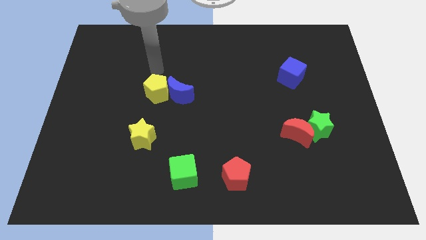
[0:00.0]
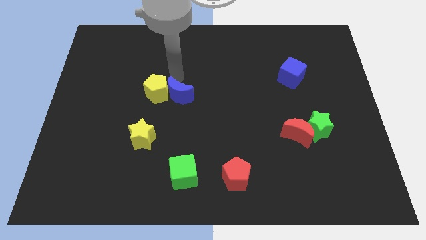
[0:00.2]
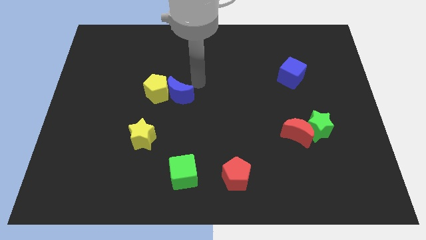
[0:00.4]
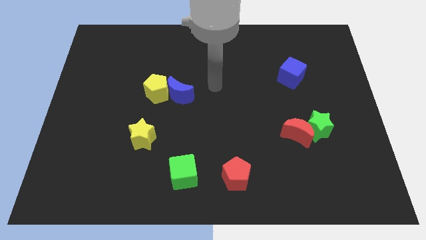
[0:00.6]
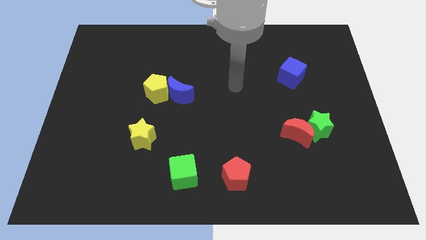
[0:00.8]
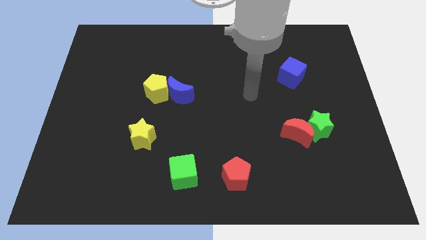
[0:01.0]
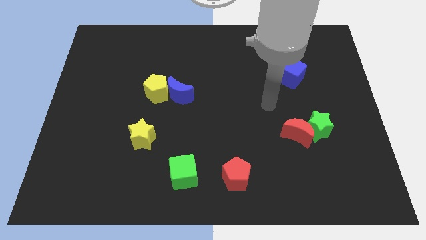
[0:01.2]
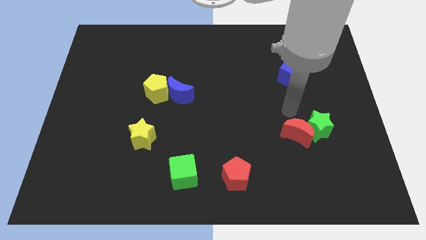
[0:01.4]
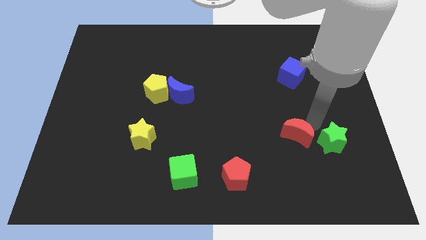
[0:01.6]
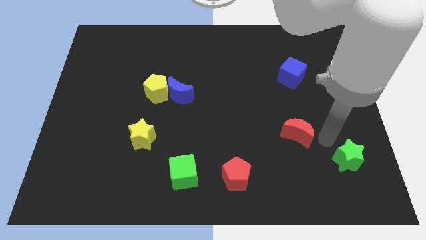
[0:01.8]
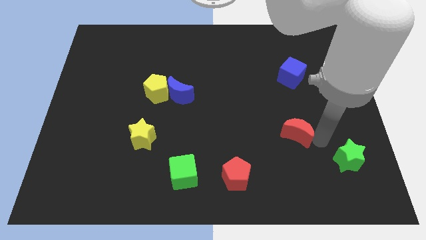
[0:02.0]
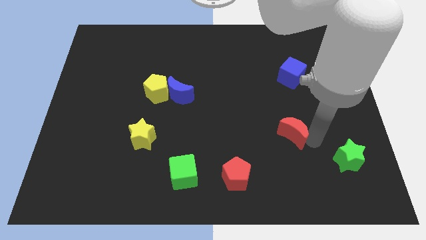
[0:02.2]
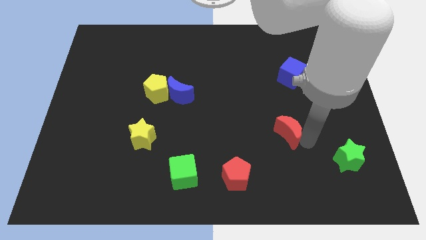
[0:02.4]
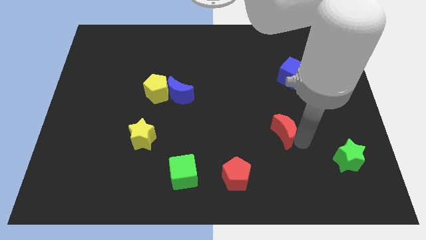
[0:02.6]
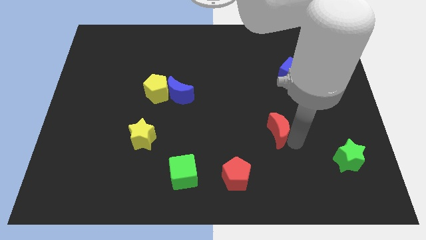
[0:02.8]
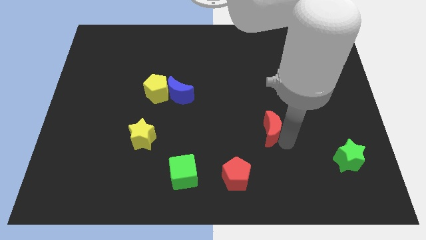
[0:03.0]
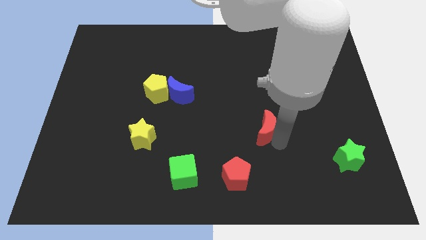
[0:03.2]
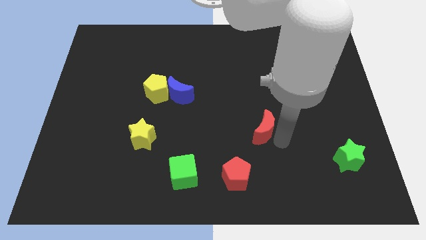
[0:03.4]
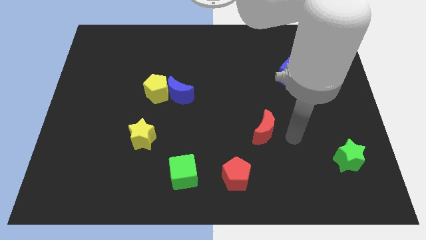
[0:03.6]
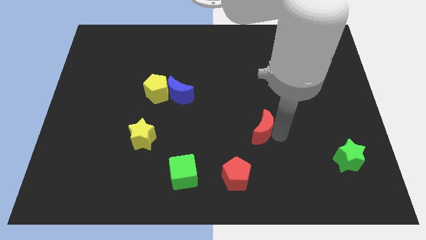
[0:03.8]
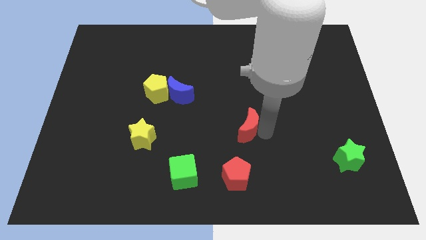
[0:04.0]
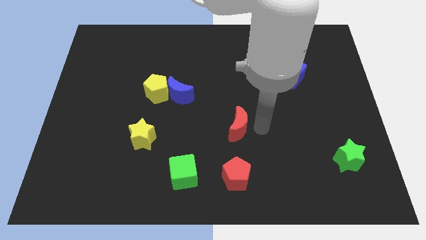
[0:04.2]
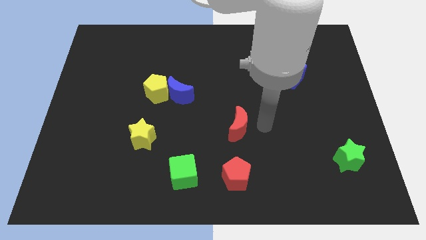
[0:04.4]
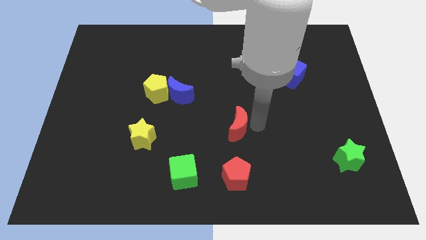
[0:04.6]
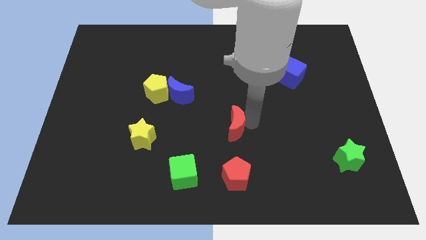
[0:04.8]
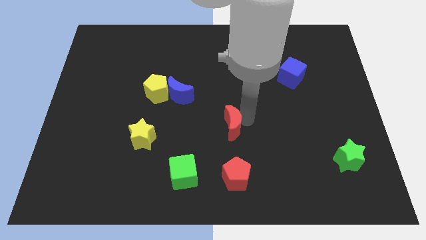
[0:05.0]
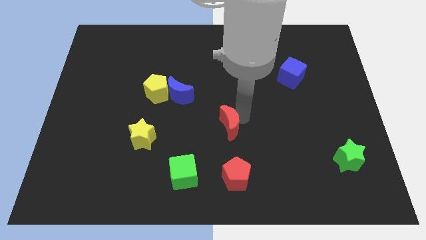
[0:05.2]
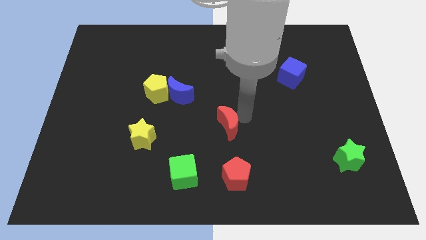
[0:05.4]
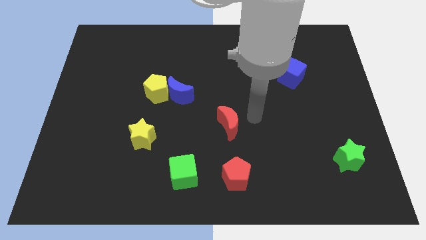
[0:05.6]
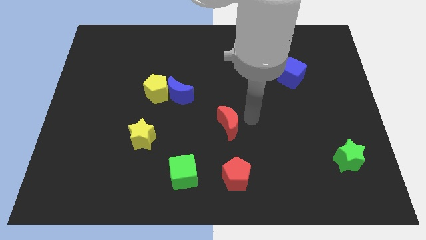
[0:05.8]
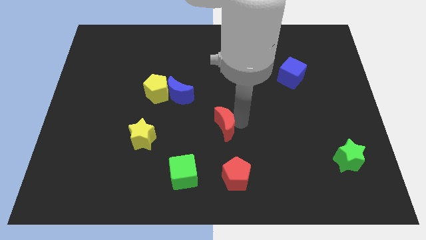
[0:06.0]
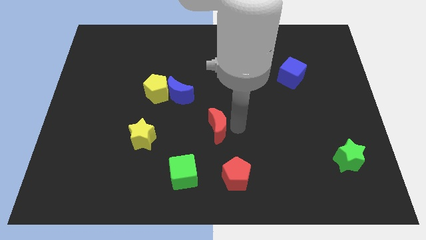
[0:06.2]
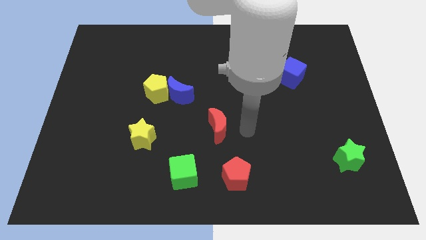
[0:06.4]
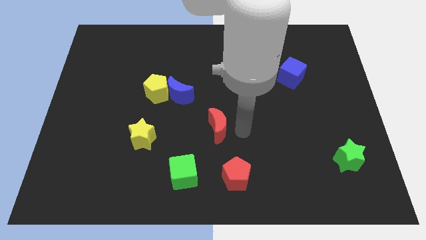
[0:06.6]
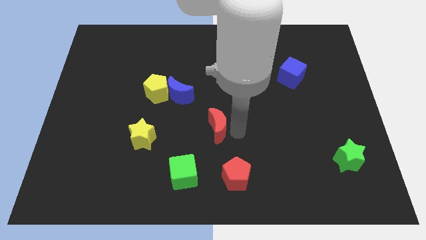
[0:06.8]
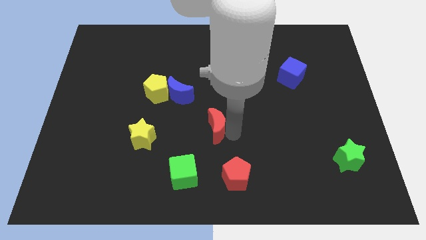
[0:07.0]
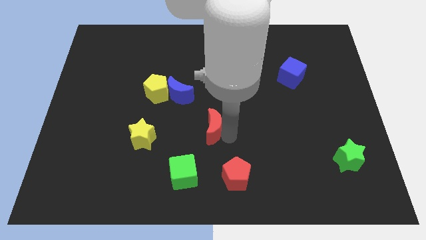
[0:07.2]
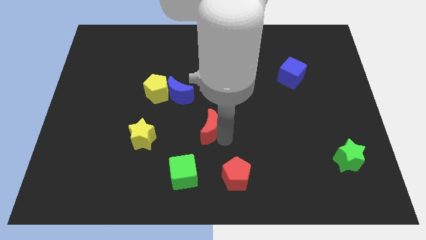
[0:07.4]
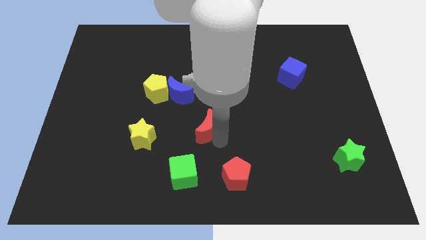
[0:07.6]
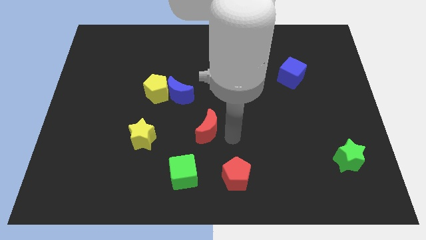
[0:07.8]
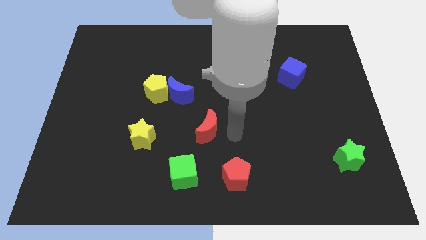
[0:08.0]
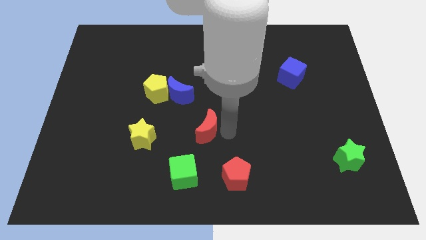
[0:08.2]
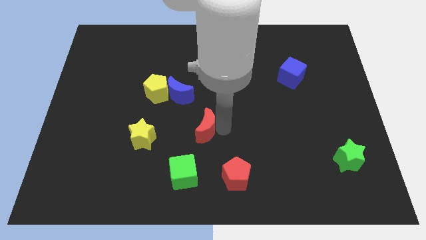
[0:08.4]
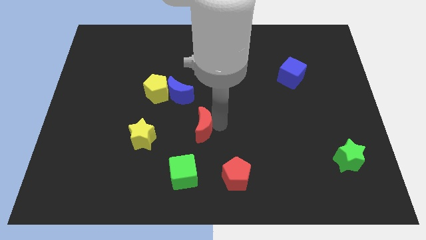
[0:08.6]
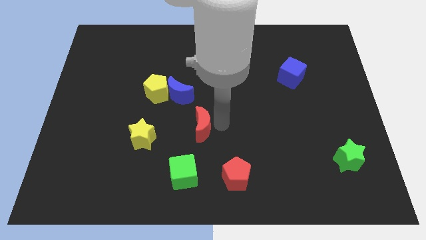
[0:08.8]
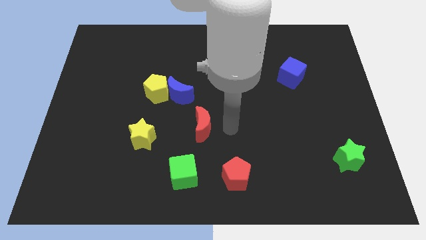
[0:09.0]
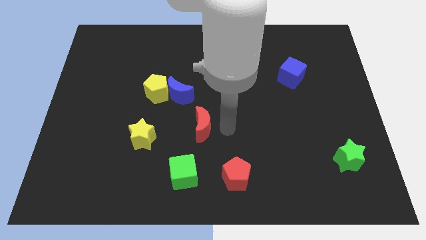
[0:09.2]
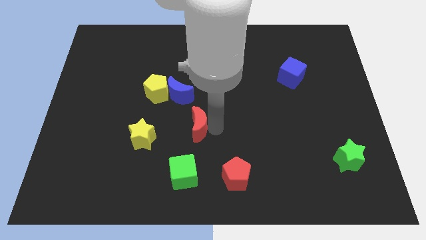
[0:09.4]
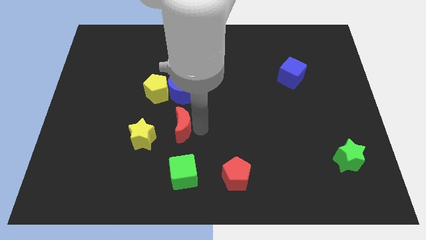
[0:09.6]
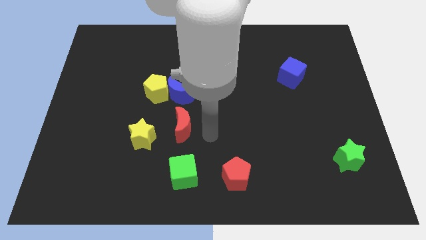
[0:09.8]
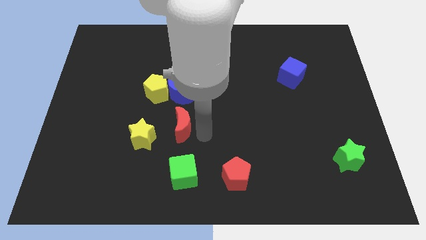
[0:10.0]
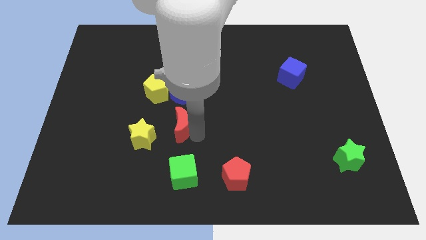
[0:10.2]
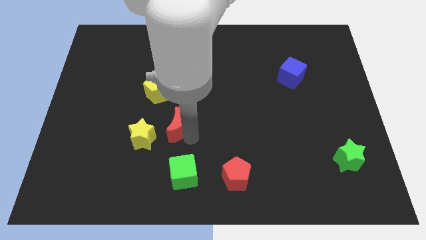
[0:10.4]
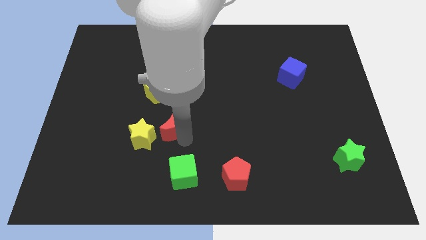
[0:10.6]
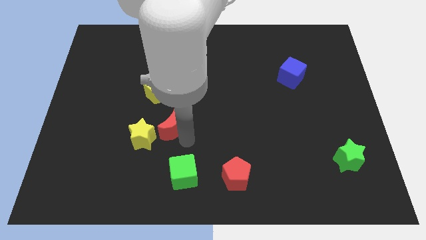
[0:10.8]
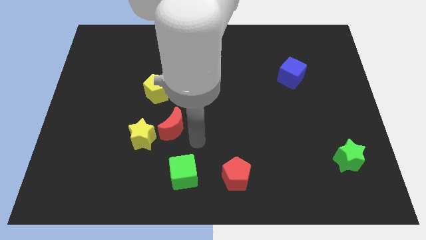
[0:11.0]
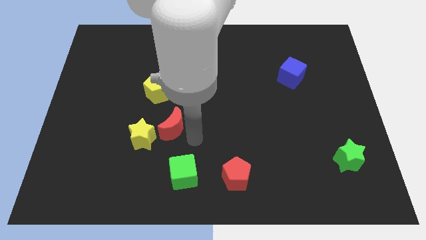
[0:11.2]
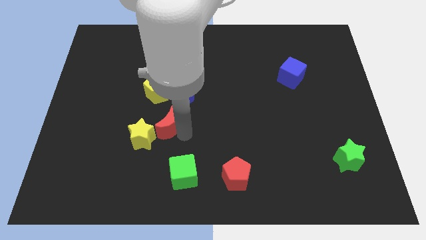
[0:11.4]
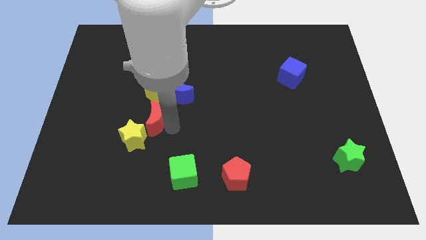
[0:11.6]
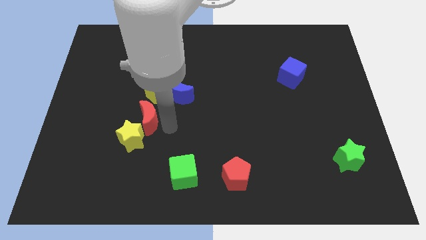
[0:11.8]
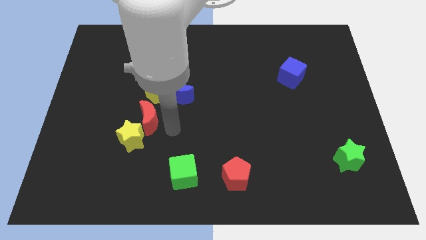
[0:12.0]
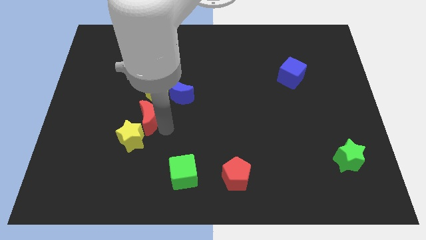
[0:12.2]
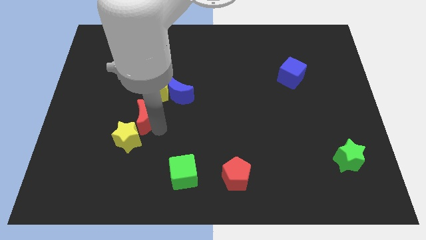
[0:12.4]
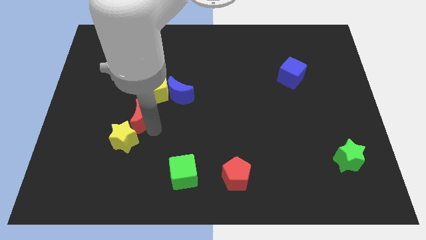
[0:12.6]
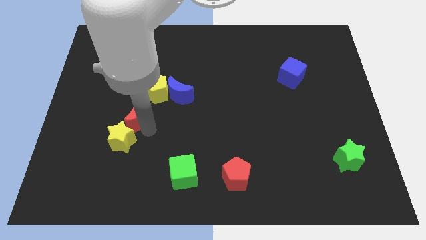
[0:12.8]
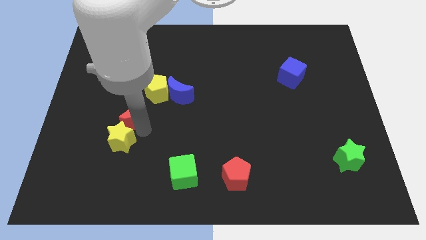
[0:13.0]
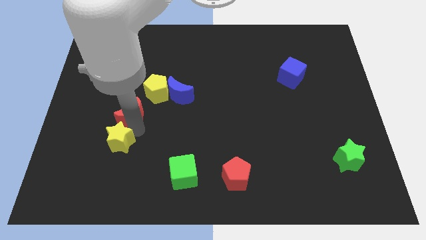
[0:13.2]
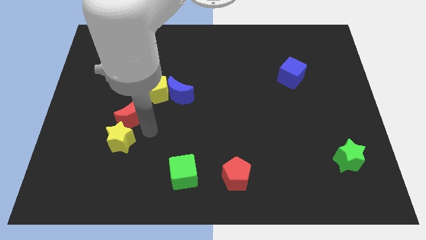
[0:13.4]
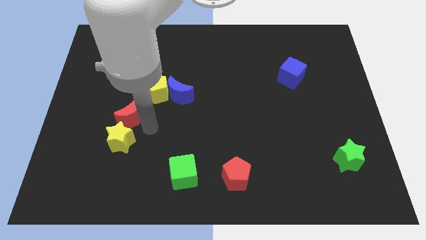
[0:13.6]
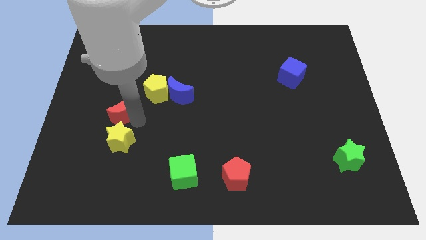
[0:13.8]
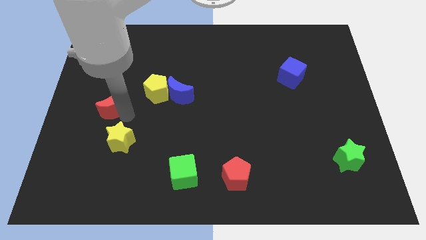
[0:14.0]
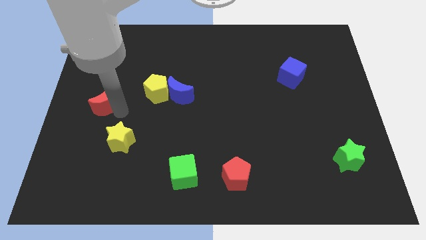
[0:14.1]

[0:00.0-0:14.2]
put the red moon to the left side
